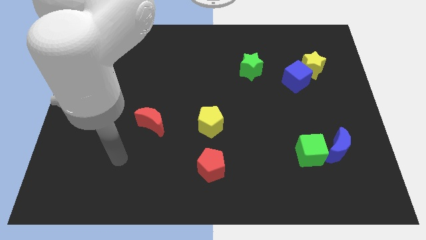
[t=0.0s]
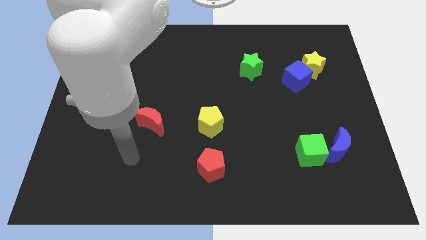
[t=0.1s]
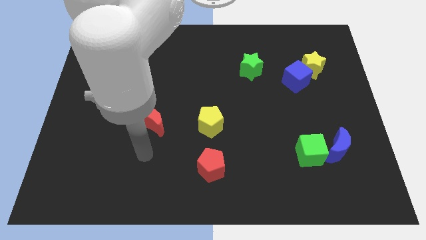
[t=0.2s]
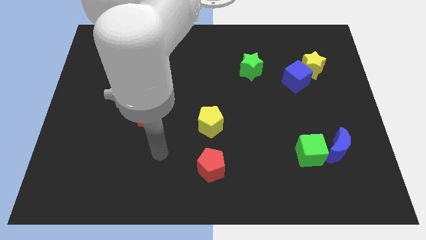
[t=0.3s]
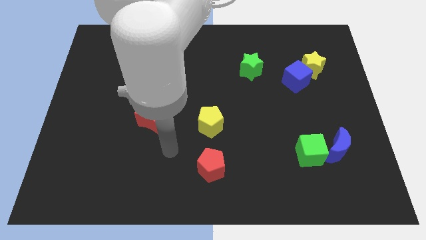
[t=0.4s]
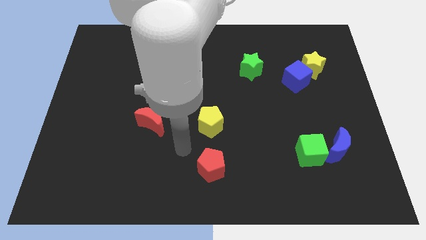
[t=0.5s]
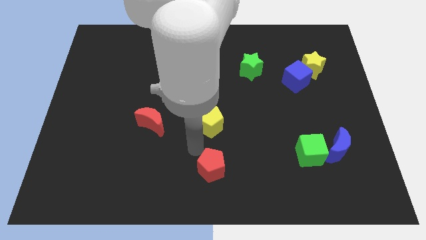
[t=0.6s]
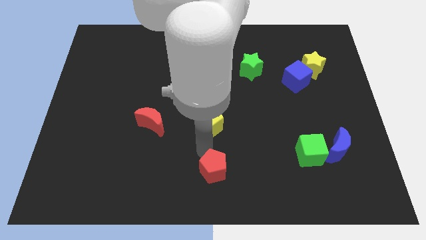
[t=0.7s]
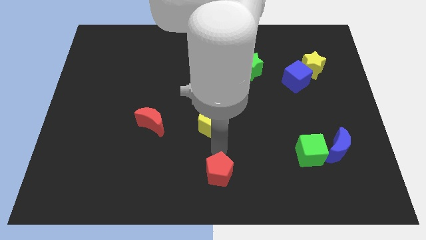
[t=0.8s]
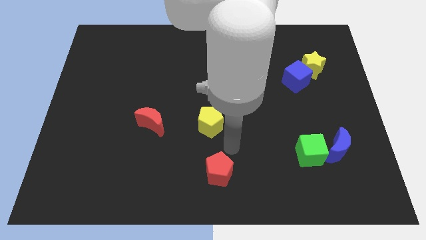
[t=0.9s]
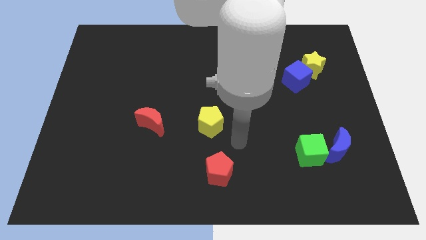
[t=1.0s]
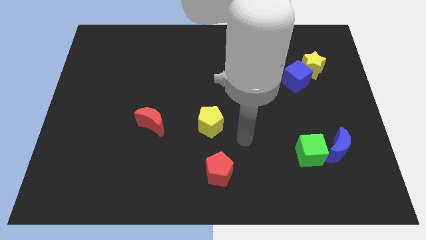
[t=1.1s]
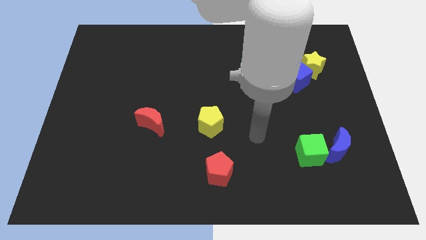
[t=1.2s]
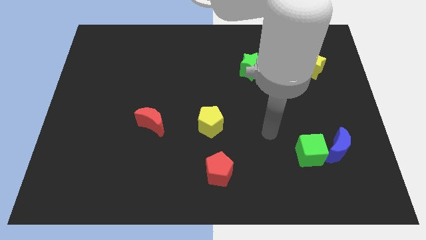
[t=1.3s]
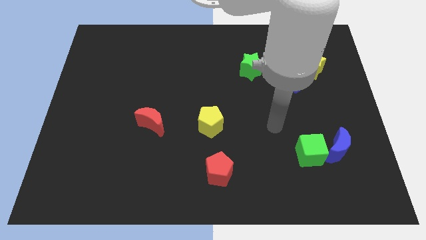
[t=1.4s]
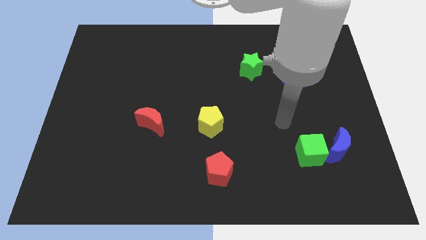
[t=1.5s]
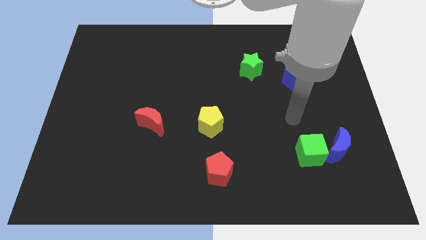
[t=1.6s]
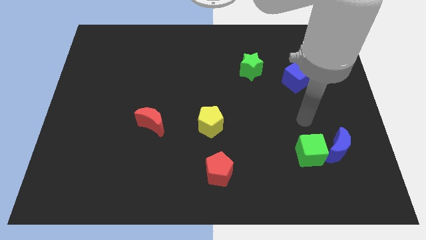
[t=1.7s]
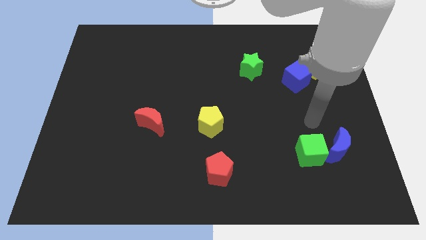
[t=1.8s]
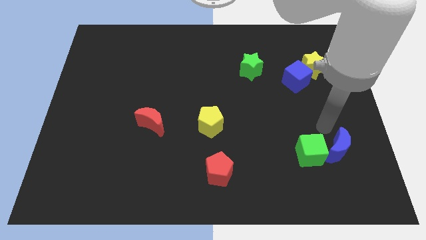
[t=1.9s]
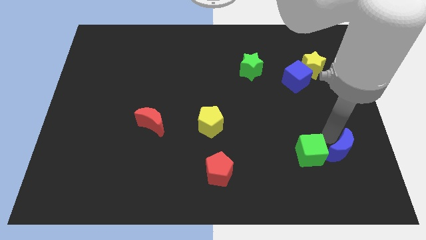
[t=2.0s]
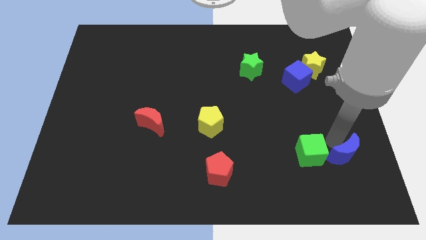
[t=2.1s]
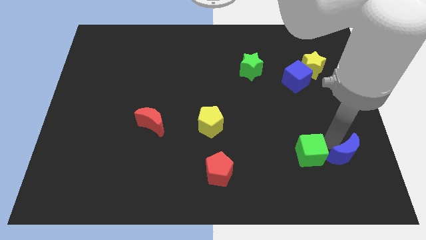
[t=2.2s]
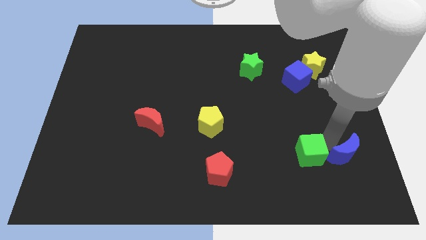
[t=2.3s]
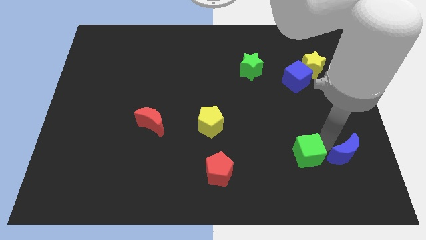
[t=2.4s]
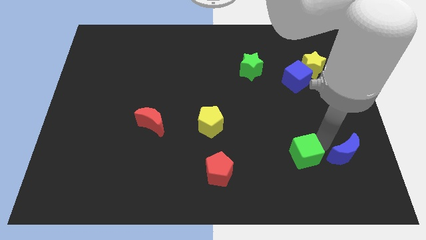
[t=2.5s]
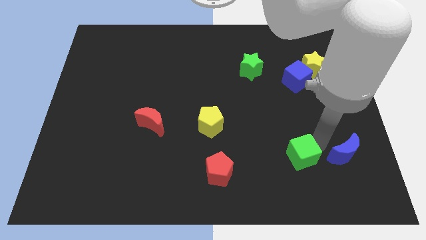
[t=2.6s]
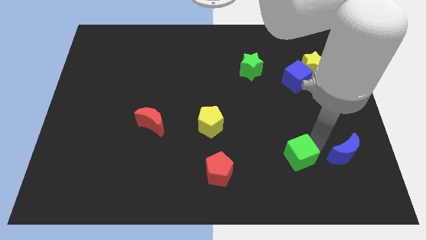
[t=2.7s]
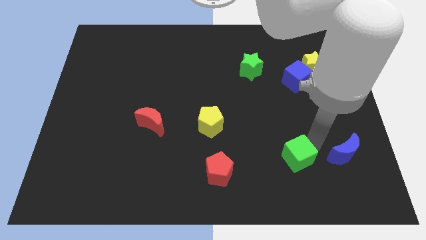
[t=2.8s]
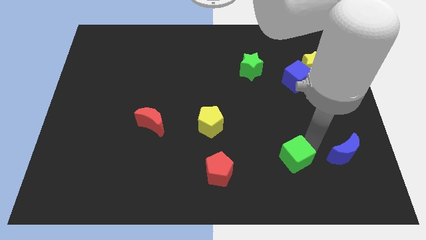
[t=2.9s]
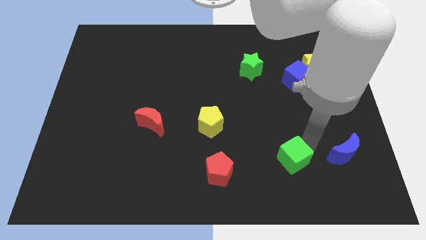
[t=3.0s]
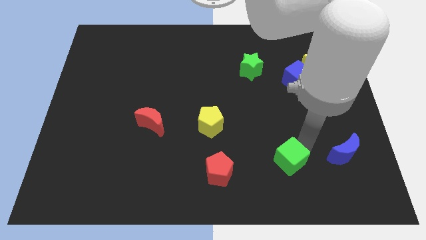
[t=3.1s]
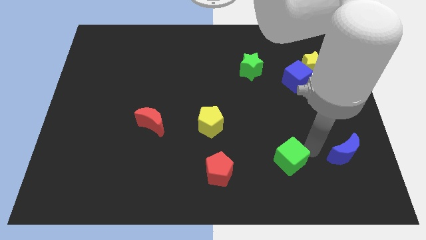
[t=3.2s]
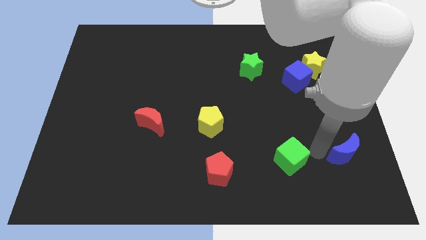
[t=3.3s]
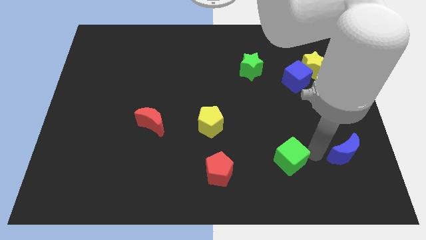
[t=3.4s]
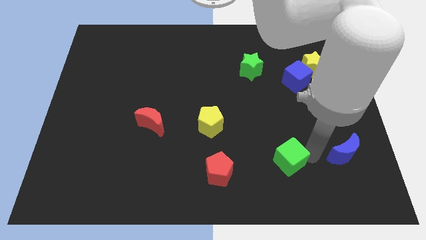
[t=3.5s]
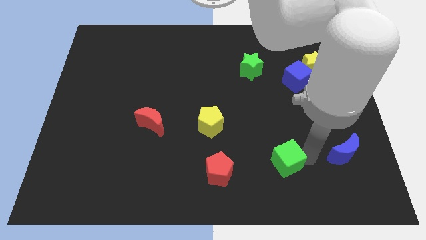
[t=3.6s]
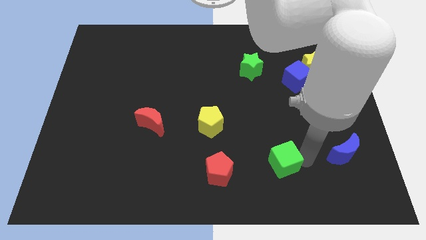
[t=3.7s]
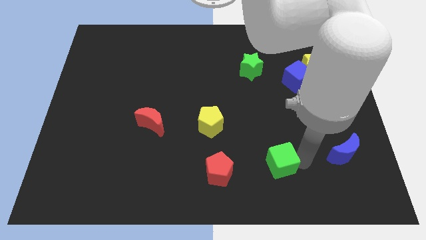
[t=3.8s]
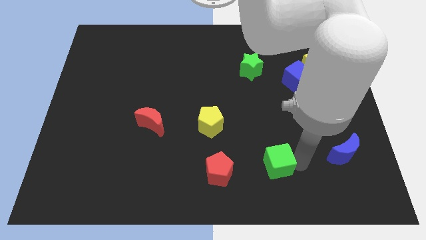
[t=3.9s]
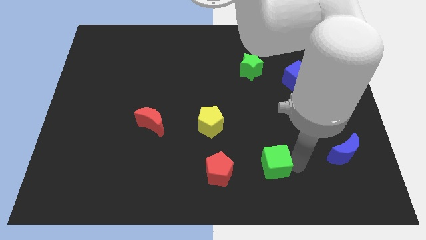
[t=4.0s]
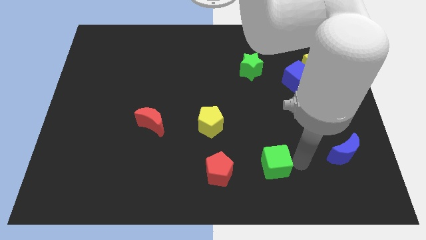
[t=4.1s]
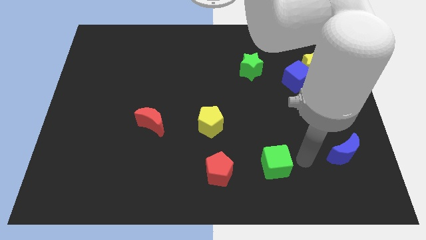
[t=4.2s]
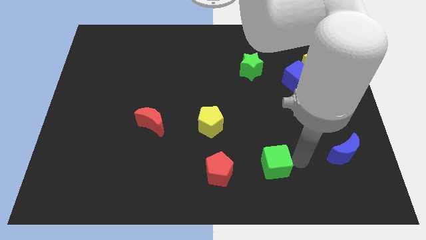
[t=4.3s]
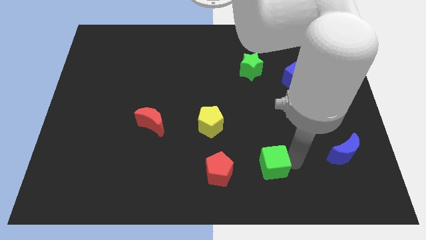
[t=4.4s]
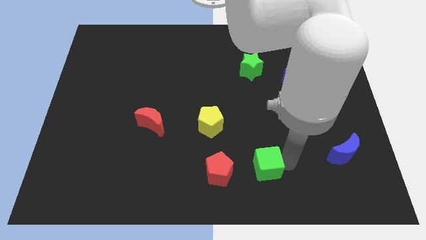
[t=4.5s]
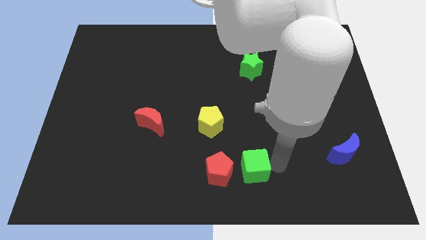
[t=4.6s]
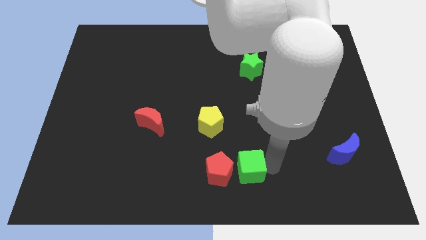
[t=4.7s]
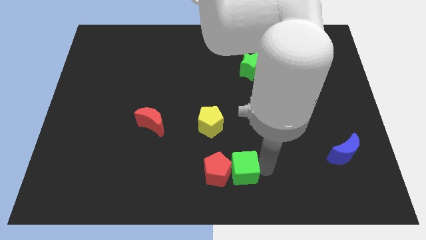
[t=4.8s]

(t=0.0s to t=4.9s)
push the green cube to the red pentagon

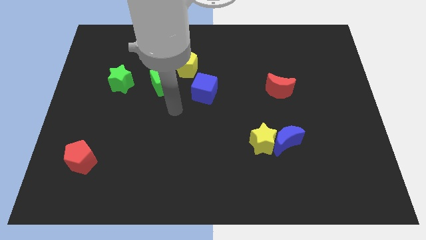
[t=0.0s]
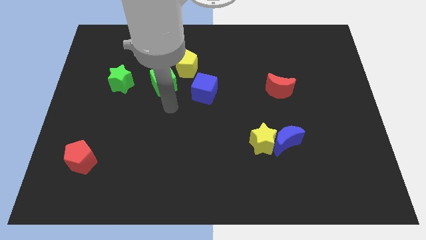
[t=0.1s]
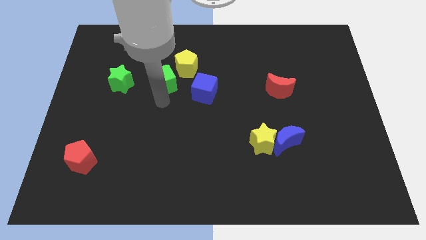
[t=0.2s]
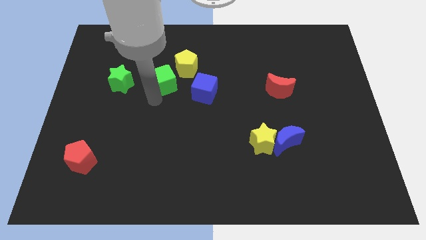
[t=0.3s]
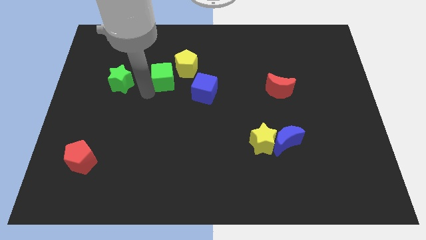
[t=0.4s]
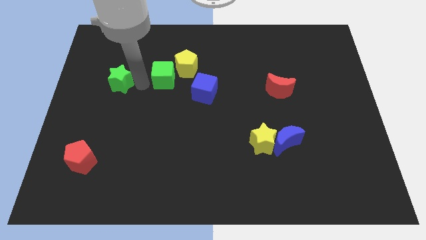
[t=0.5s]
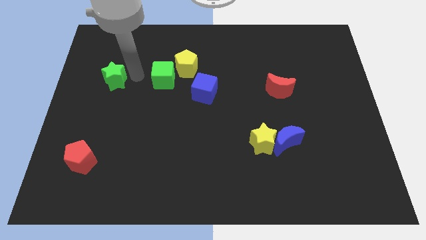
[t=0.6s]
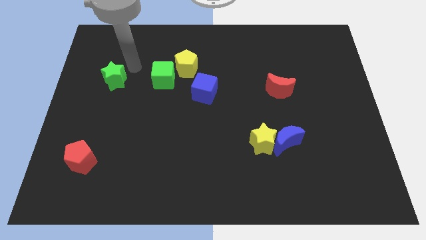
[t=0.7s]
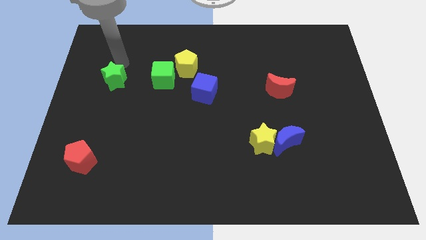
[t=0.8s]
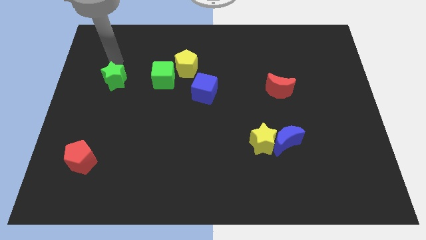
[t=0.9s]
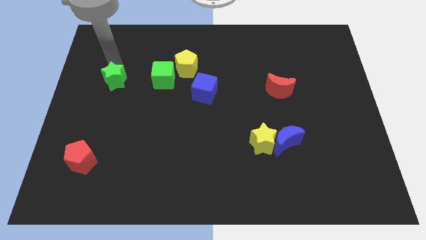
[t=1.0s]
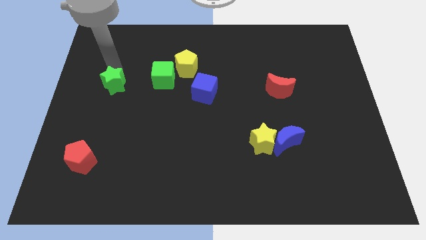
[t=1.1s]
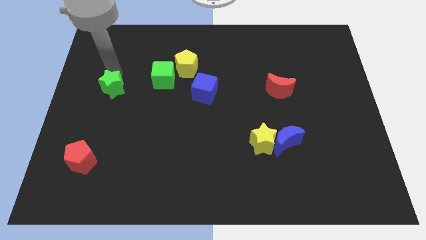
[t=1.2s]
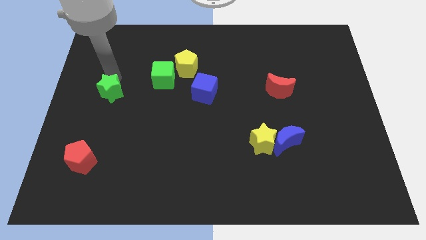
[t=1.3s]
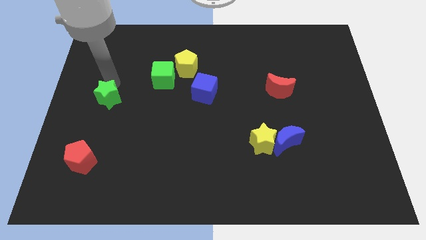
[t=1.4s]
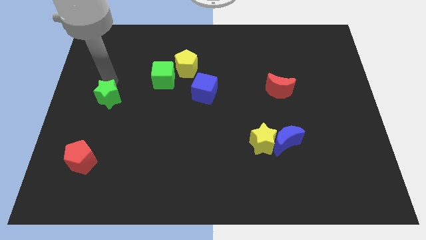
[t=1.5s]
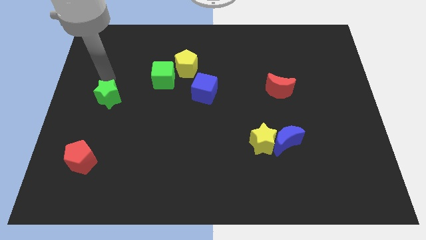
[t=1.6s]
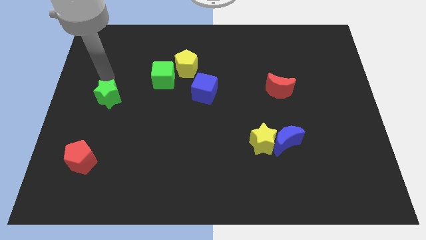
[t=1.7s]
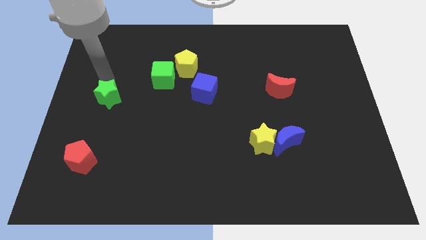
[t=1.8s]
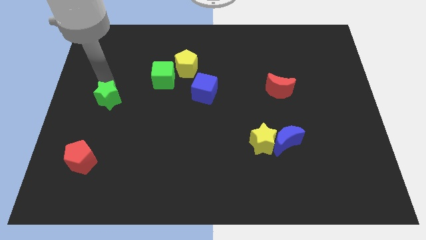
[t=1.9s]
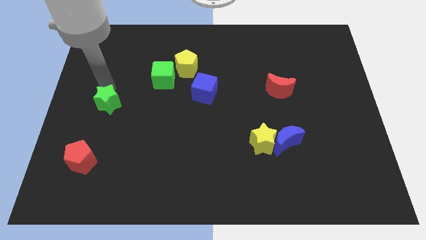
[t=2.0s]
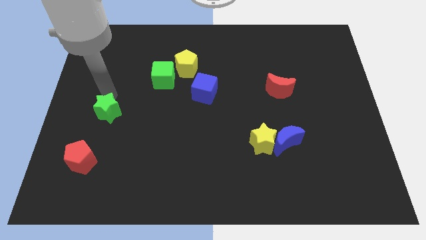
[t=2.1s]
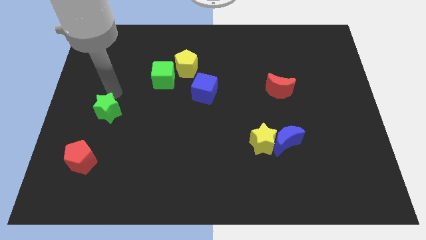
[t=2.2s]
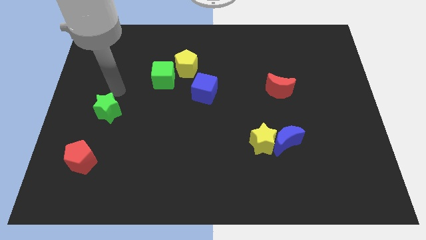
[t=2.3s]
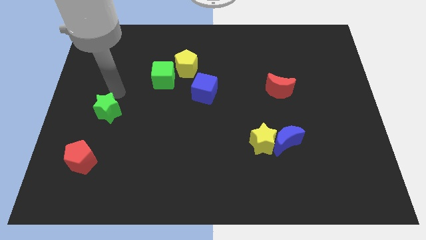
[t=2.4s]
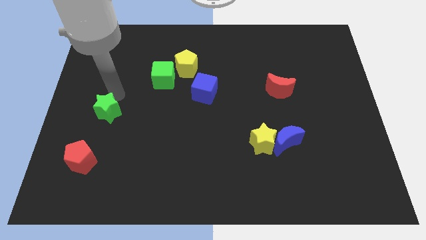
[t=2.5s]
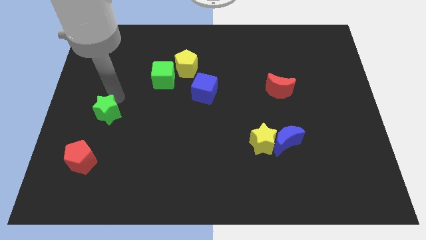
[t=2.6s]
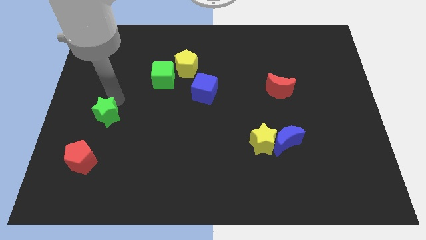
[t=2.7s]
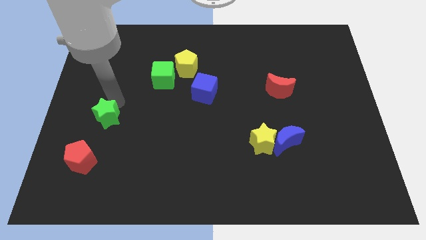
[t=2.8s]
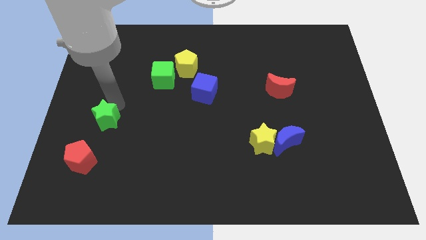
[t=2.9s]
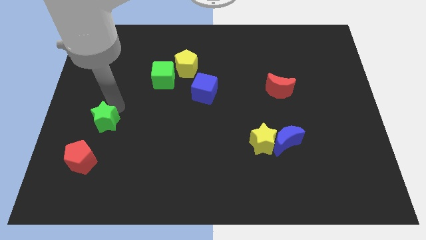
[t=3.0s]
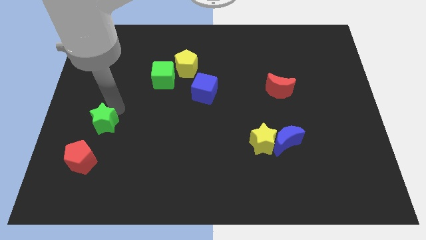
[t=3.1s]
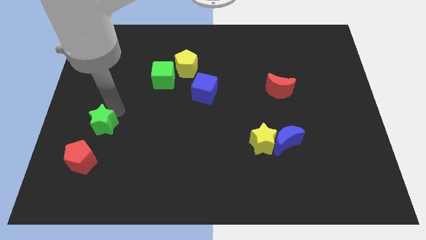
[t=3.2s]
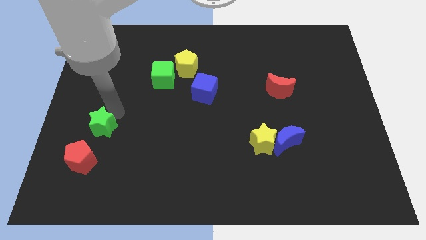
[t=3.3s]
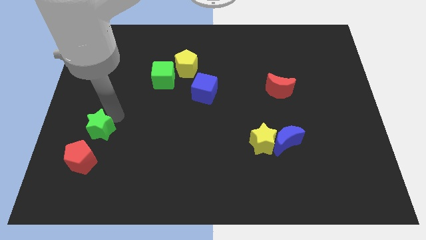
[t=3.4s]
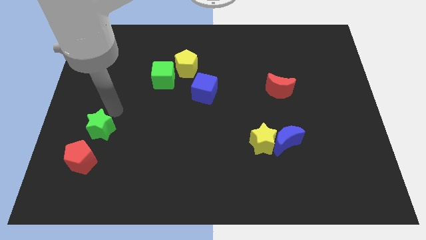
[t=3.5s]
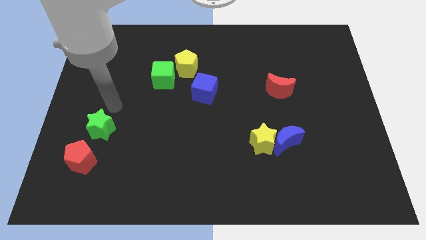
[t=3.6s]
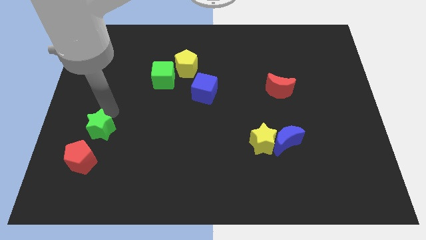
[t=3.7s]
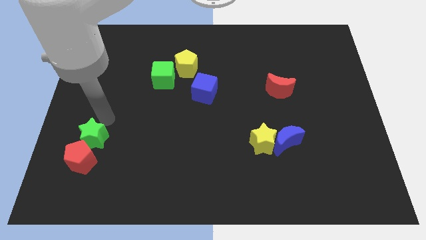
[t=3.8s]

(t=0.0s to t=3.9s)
put the green star towards the red pentagon
